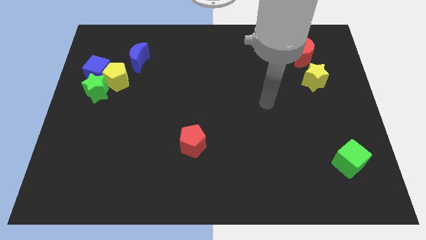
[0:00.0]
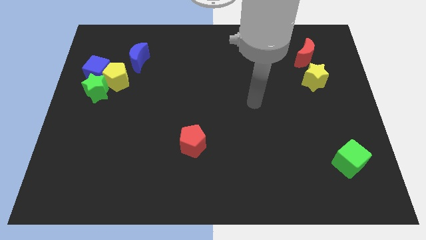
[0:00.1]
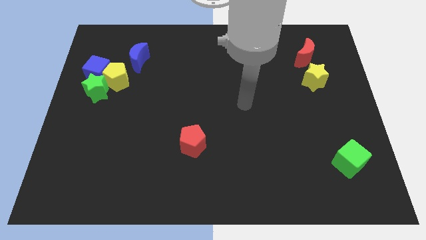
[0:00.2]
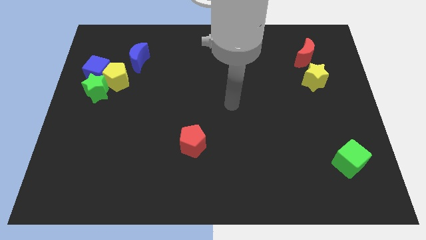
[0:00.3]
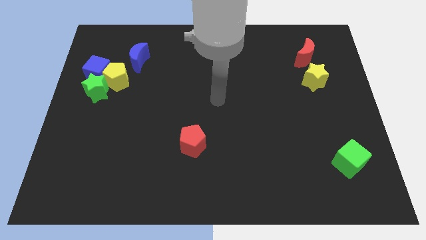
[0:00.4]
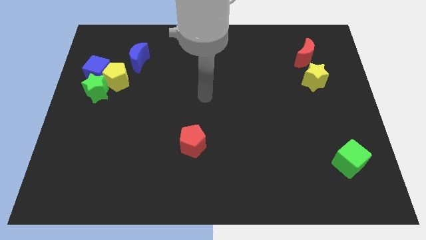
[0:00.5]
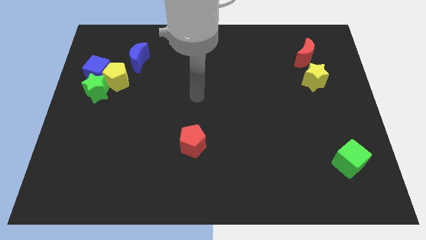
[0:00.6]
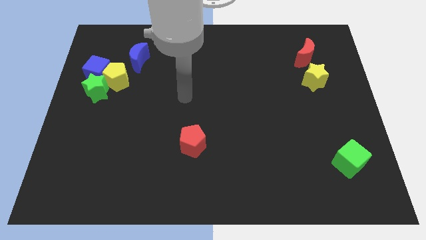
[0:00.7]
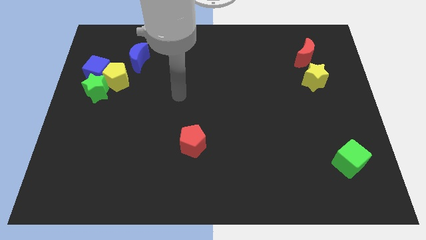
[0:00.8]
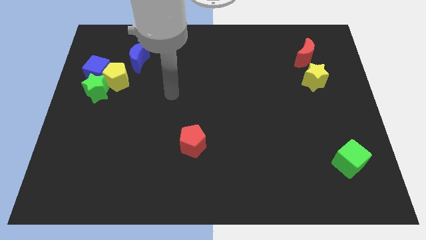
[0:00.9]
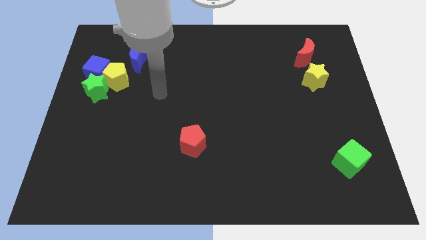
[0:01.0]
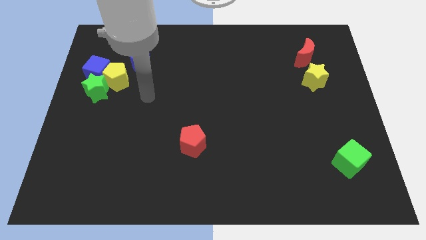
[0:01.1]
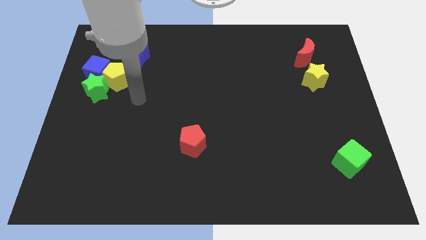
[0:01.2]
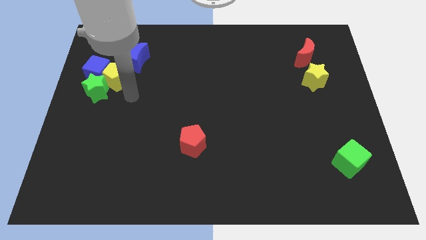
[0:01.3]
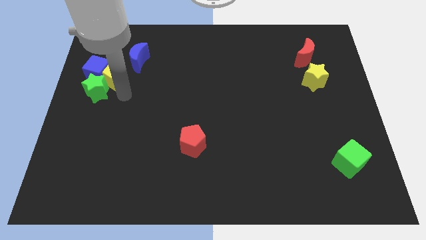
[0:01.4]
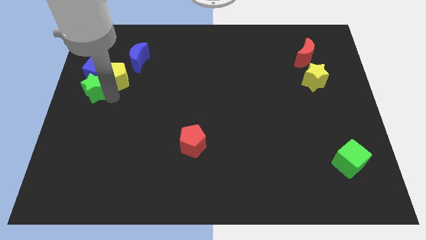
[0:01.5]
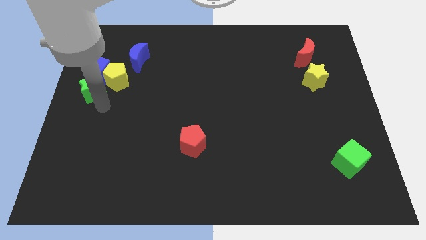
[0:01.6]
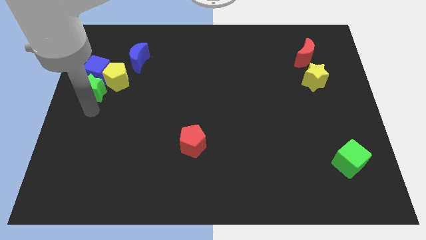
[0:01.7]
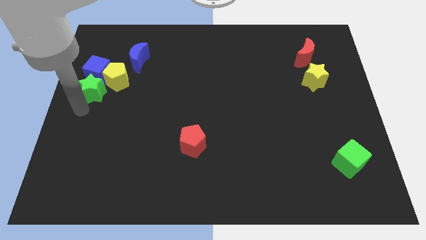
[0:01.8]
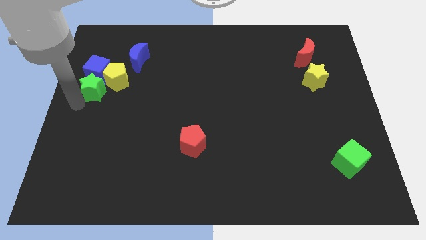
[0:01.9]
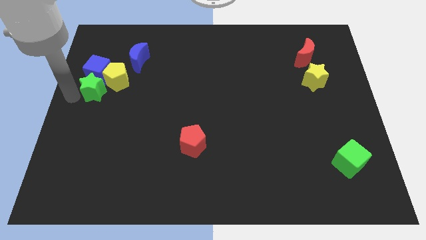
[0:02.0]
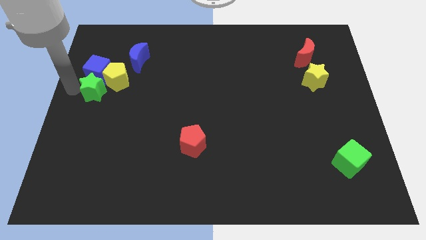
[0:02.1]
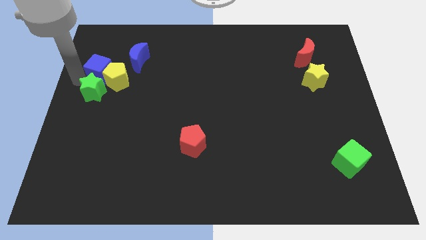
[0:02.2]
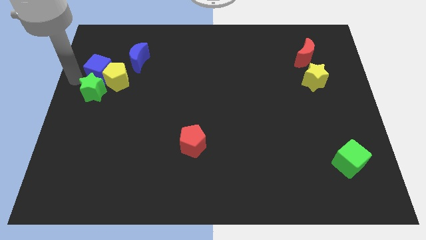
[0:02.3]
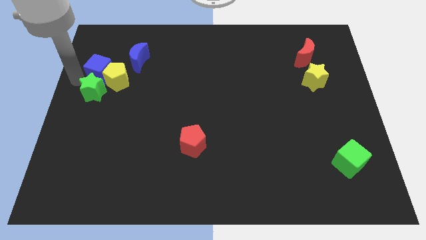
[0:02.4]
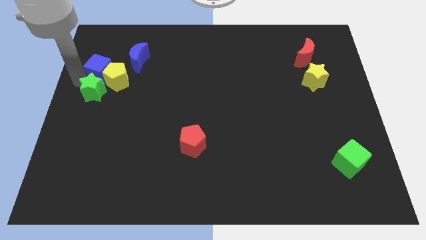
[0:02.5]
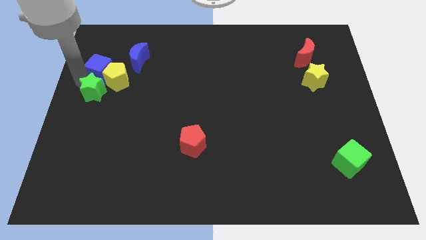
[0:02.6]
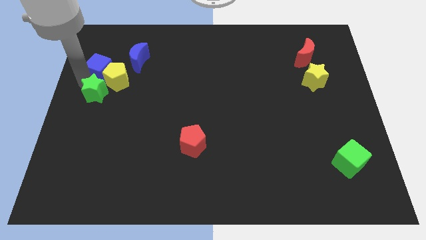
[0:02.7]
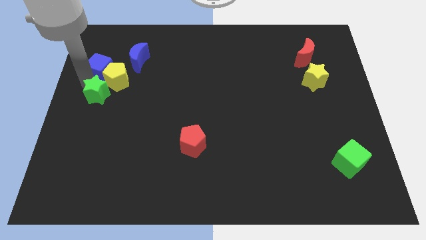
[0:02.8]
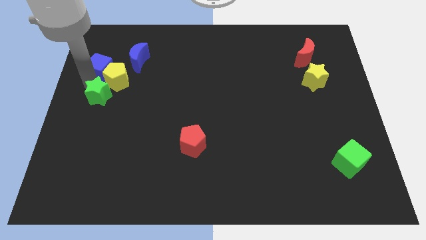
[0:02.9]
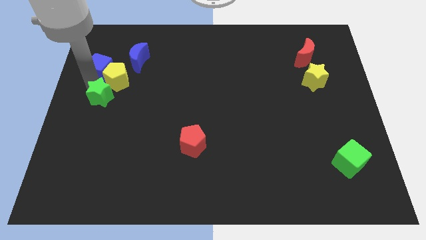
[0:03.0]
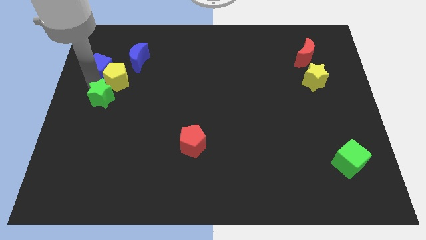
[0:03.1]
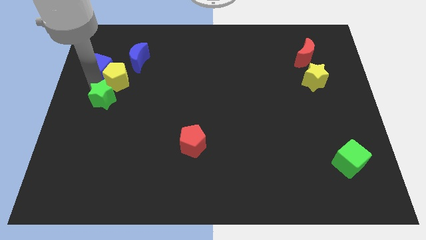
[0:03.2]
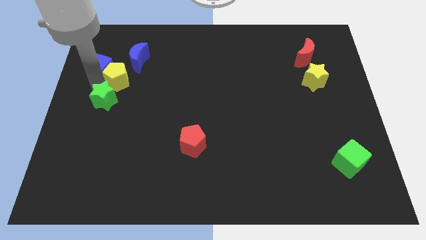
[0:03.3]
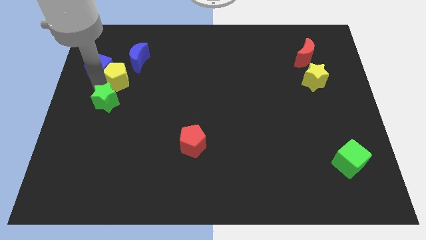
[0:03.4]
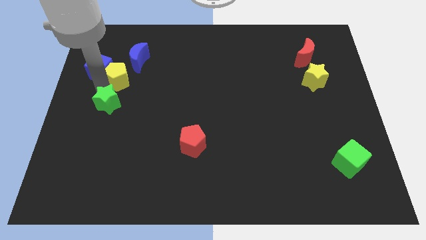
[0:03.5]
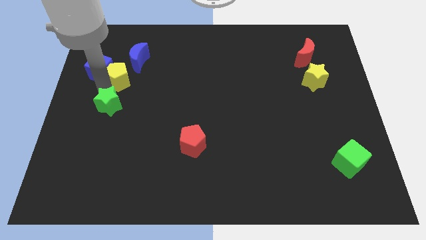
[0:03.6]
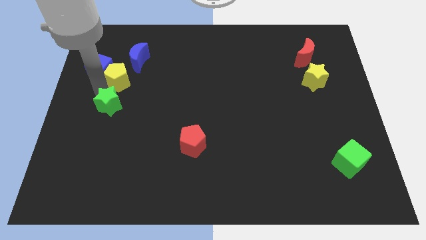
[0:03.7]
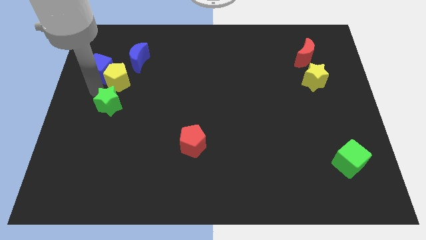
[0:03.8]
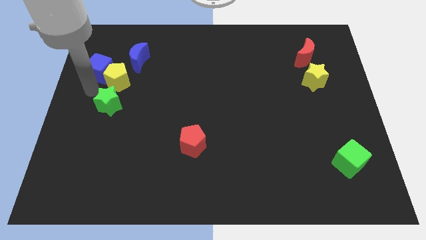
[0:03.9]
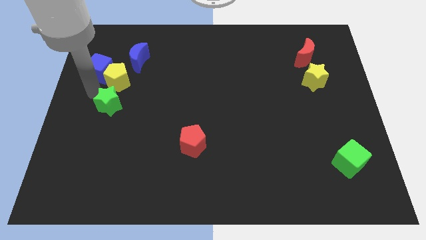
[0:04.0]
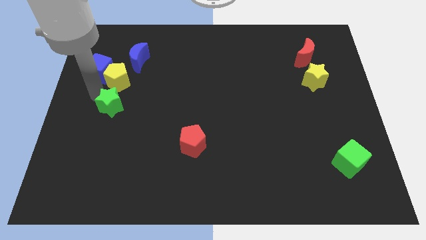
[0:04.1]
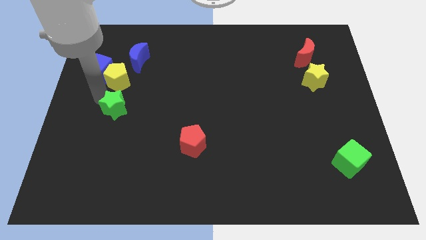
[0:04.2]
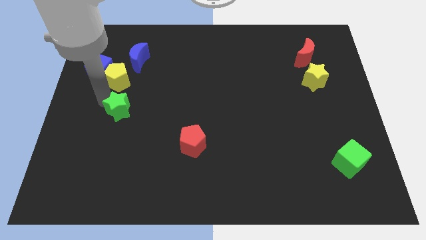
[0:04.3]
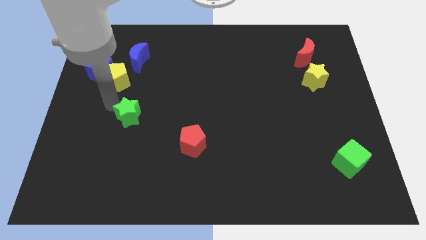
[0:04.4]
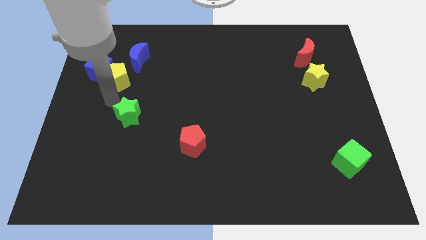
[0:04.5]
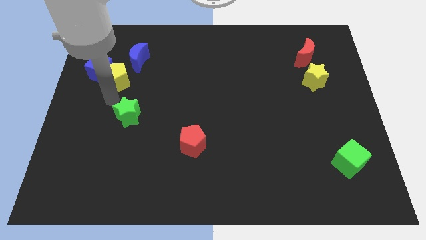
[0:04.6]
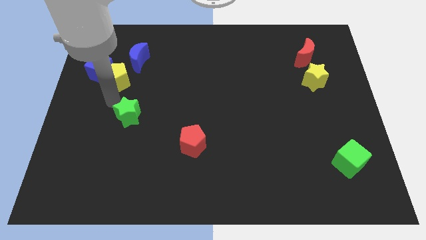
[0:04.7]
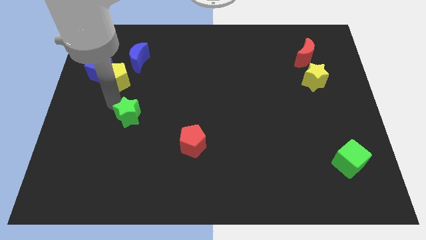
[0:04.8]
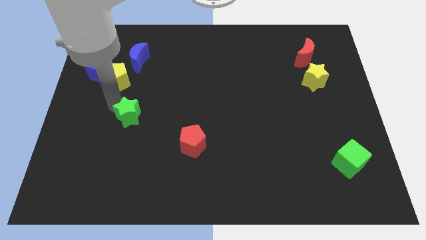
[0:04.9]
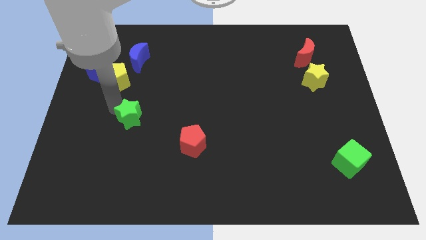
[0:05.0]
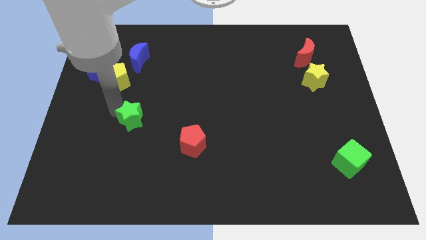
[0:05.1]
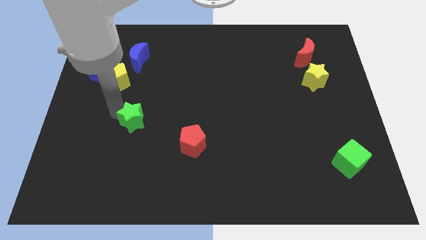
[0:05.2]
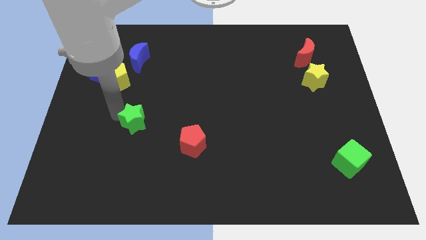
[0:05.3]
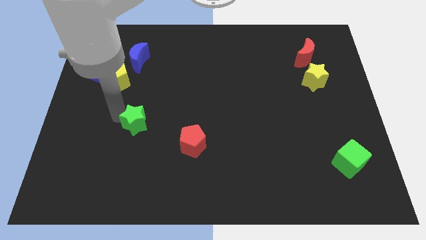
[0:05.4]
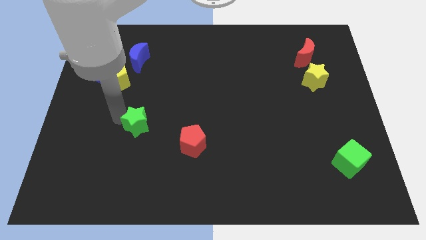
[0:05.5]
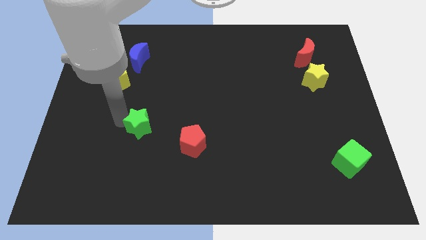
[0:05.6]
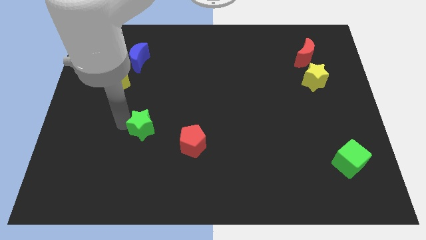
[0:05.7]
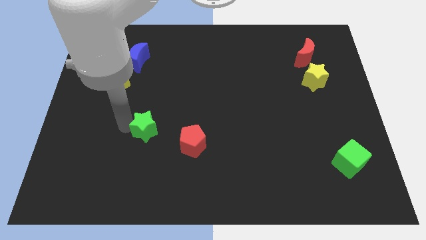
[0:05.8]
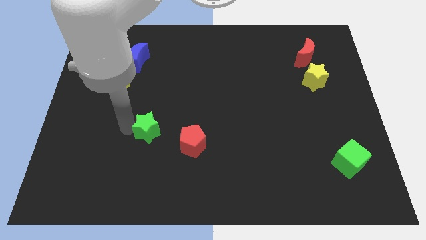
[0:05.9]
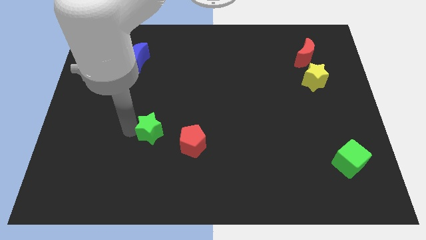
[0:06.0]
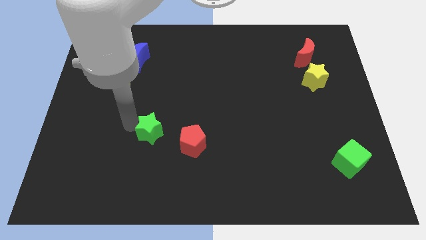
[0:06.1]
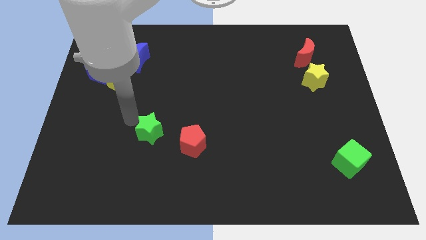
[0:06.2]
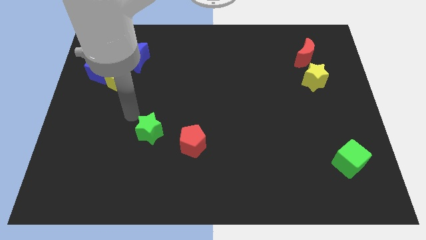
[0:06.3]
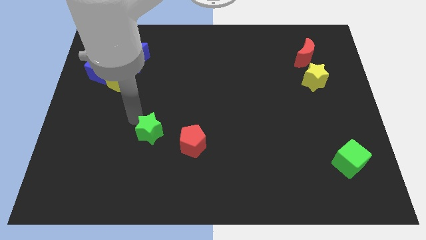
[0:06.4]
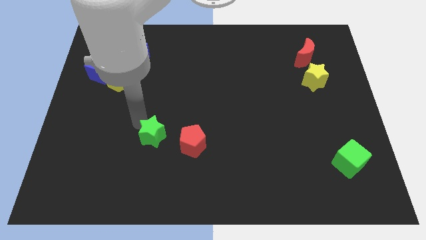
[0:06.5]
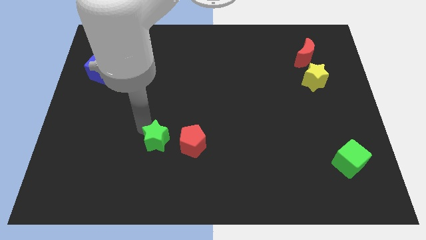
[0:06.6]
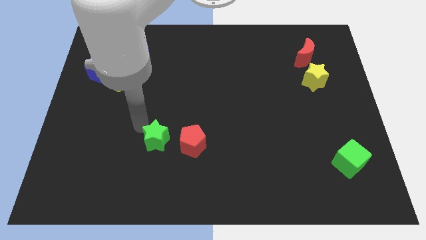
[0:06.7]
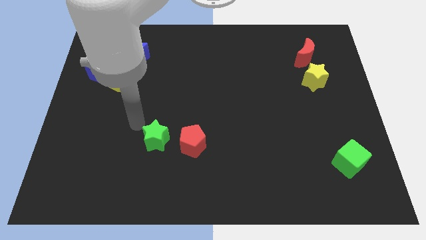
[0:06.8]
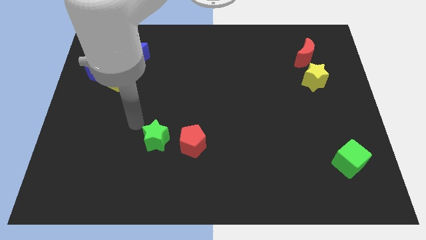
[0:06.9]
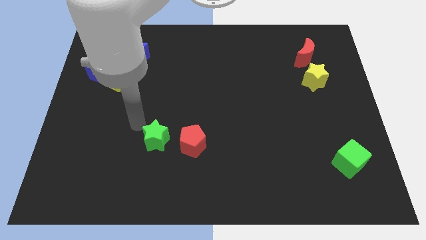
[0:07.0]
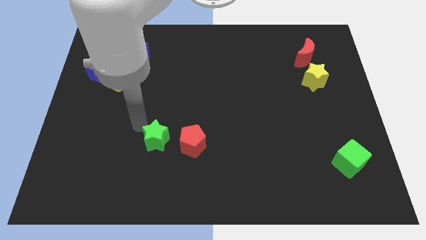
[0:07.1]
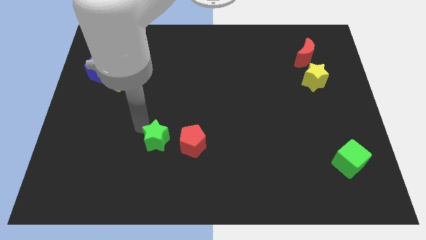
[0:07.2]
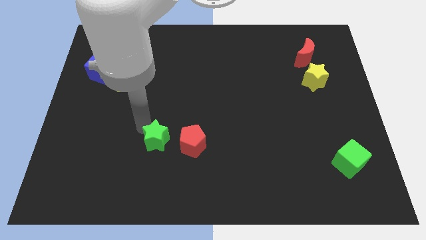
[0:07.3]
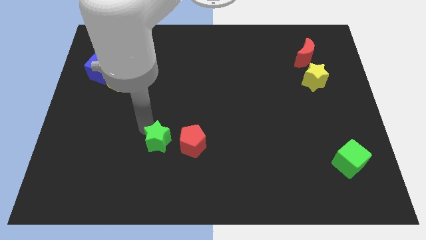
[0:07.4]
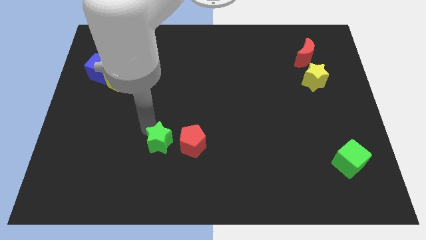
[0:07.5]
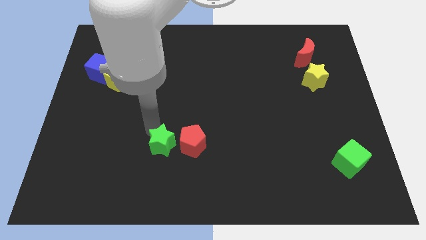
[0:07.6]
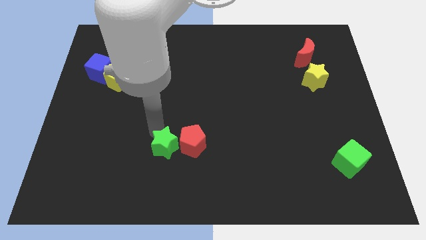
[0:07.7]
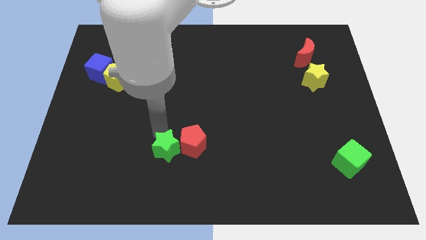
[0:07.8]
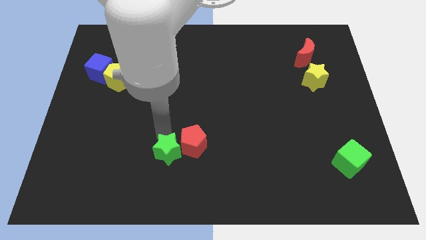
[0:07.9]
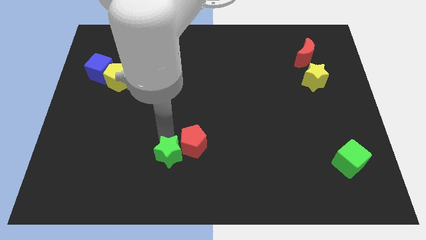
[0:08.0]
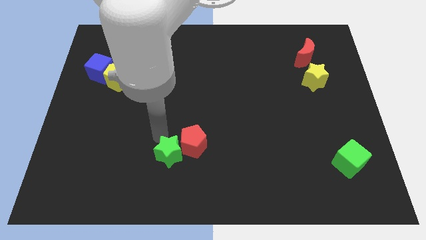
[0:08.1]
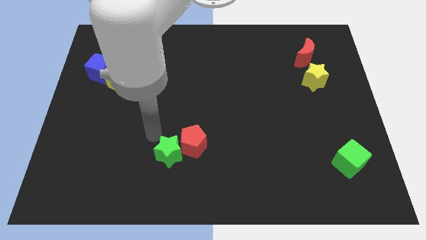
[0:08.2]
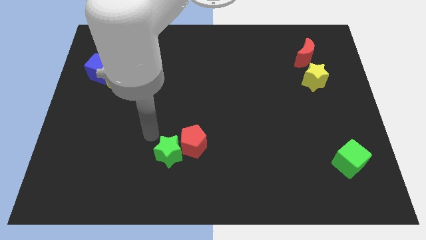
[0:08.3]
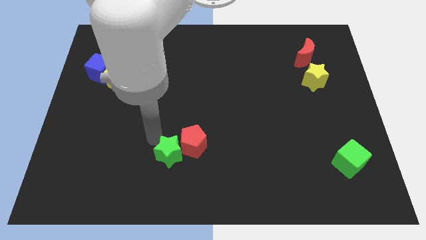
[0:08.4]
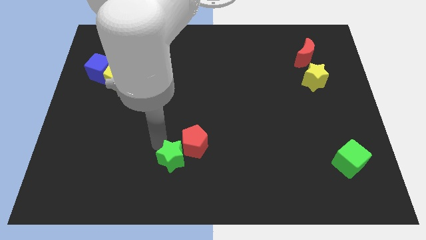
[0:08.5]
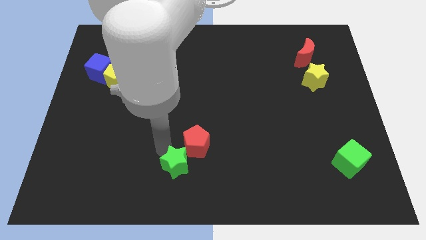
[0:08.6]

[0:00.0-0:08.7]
push the green star to the bottom side
